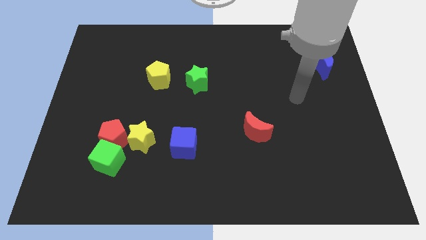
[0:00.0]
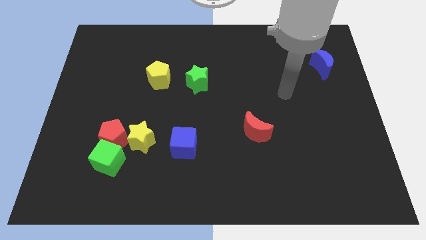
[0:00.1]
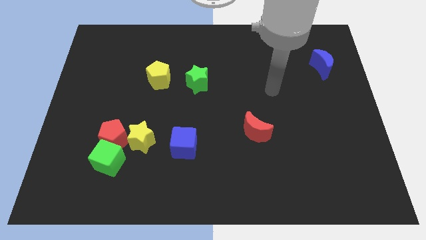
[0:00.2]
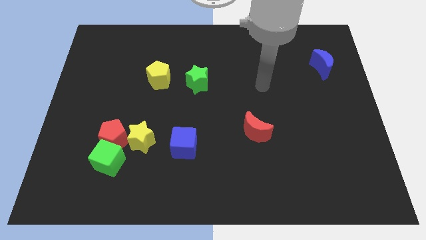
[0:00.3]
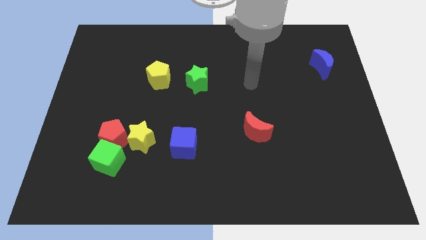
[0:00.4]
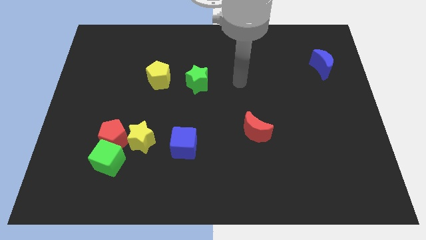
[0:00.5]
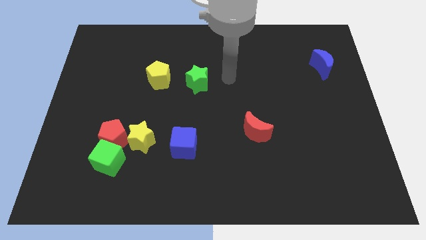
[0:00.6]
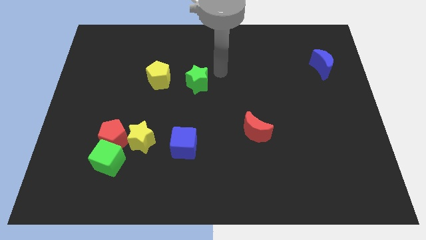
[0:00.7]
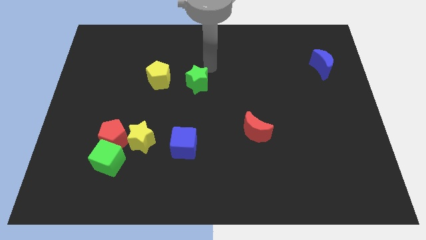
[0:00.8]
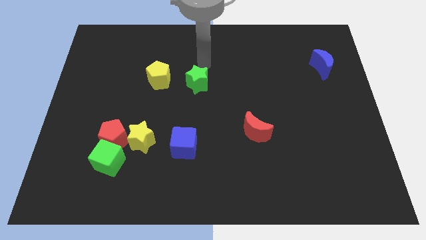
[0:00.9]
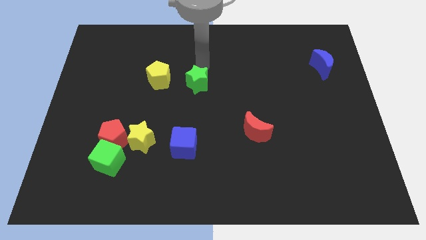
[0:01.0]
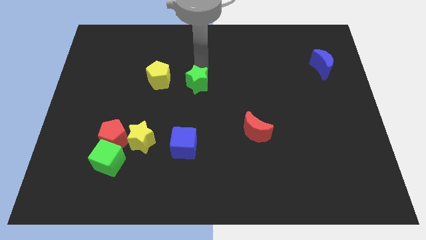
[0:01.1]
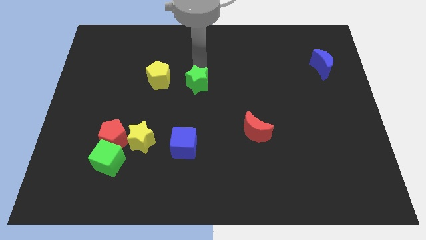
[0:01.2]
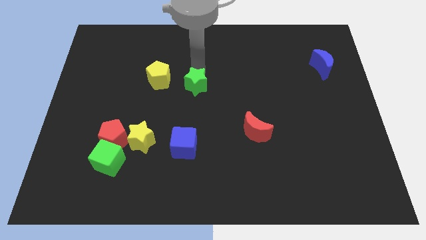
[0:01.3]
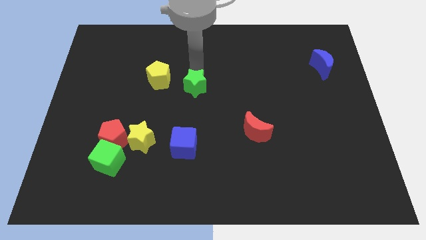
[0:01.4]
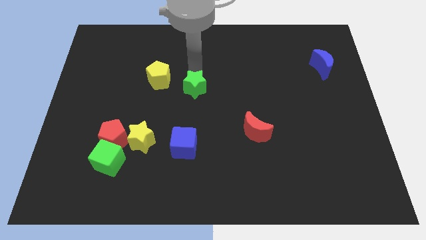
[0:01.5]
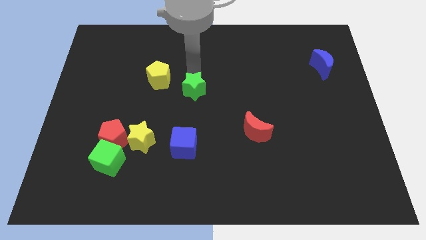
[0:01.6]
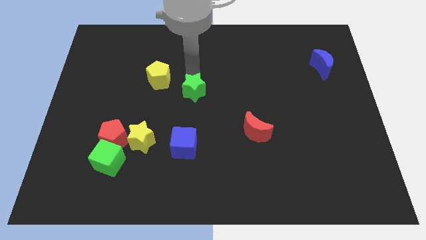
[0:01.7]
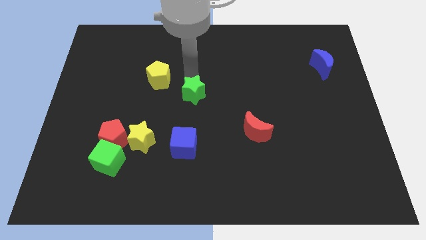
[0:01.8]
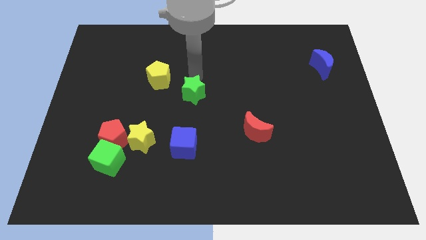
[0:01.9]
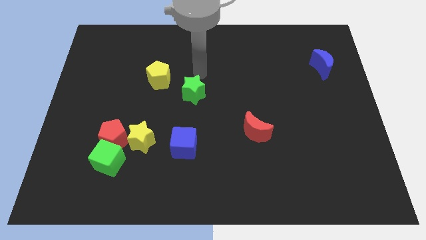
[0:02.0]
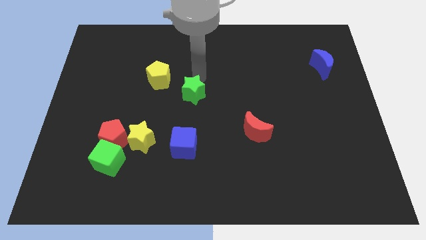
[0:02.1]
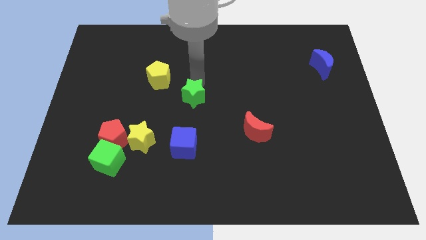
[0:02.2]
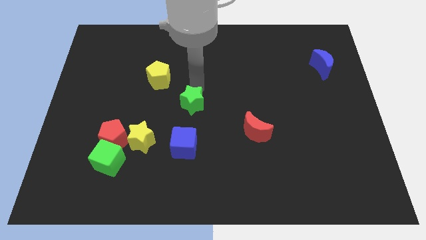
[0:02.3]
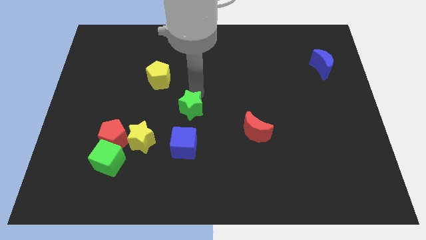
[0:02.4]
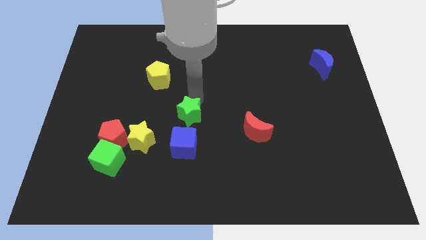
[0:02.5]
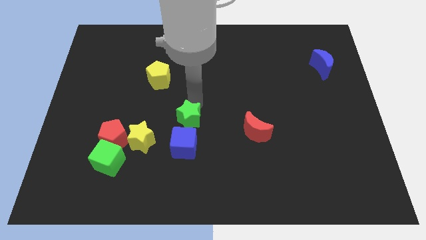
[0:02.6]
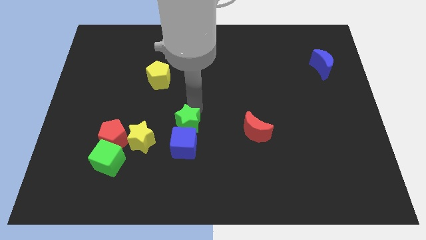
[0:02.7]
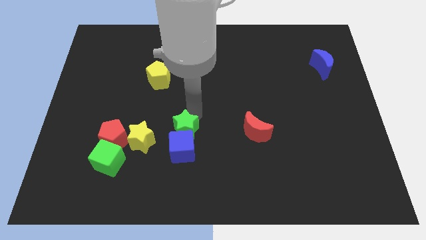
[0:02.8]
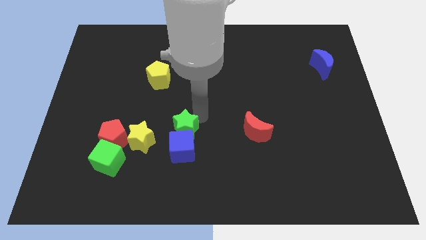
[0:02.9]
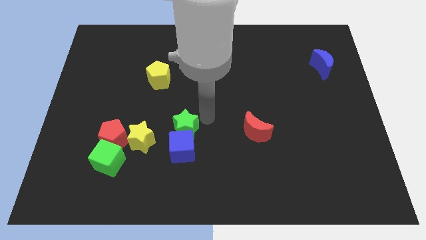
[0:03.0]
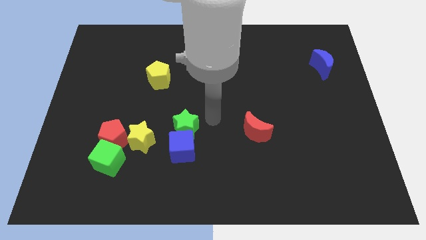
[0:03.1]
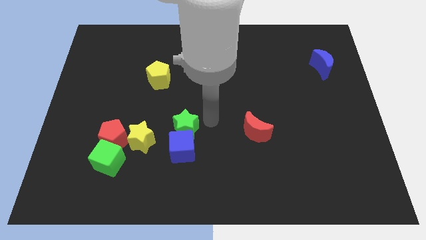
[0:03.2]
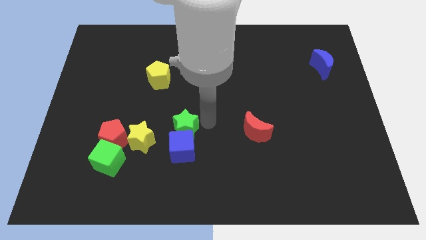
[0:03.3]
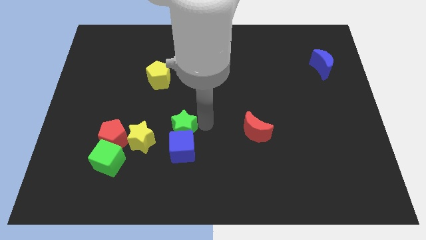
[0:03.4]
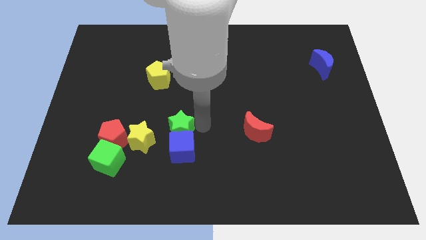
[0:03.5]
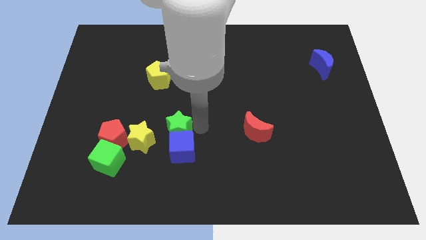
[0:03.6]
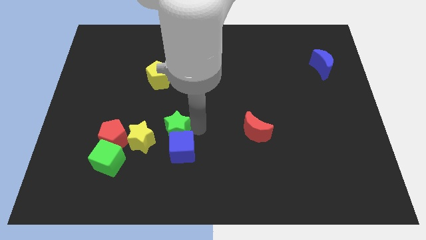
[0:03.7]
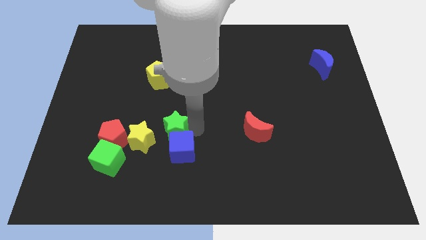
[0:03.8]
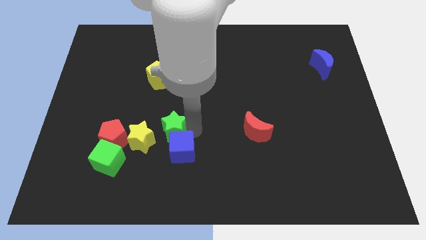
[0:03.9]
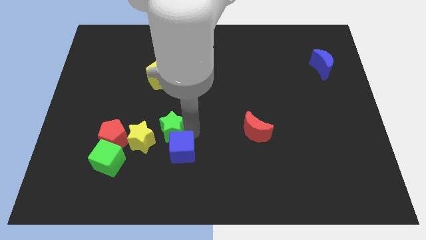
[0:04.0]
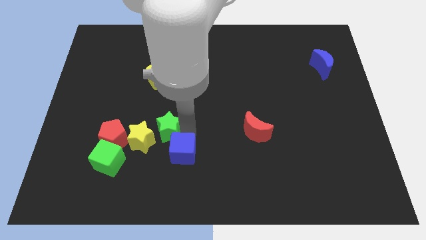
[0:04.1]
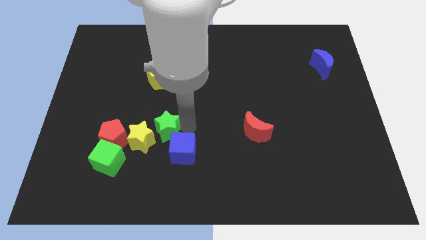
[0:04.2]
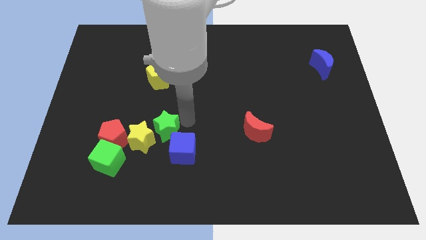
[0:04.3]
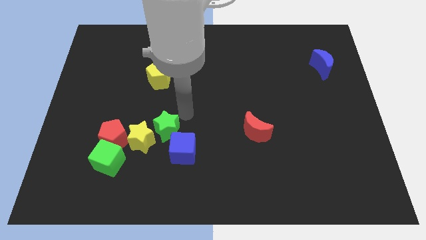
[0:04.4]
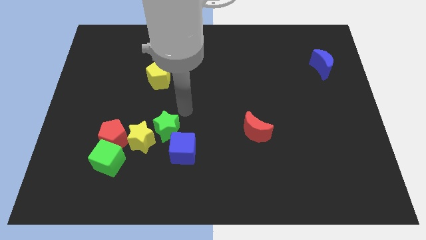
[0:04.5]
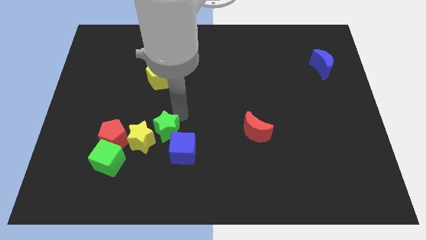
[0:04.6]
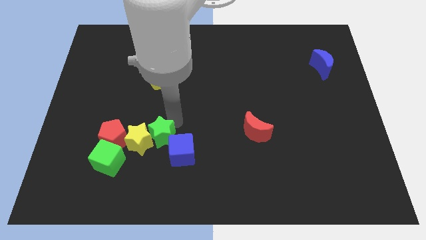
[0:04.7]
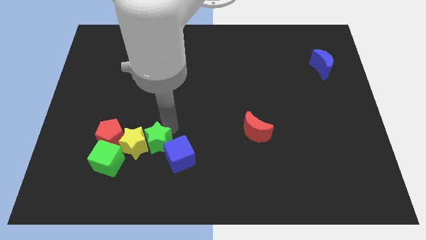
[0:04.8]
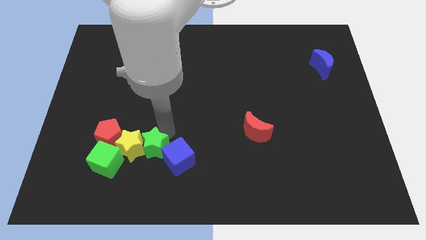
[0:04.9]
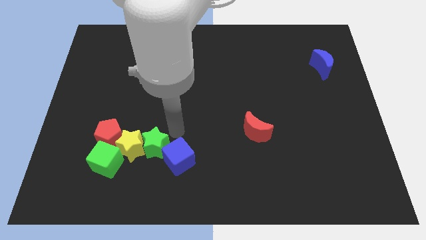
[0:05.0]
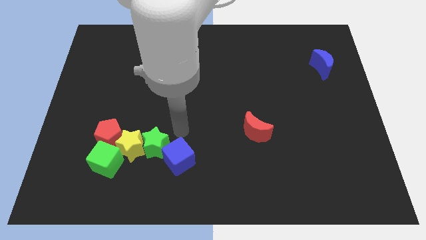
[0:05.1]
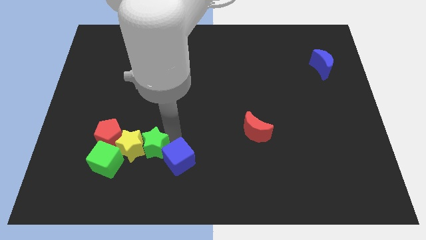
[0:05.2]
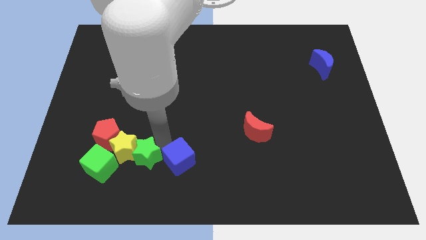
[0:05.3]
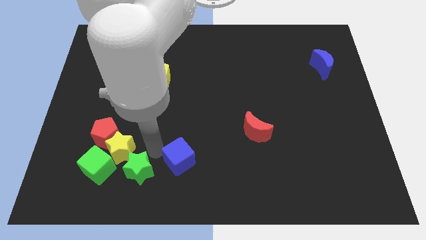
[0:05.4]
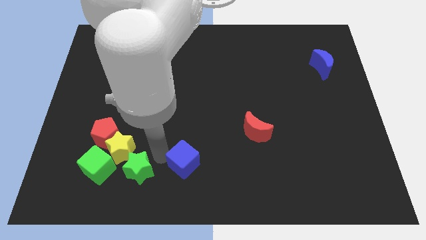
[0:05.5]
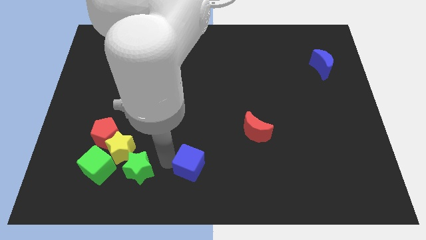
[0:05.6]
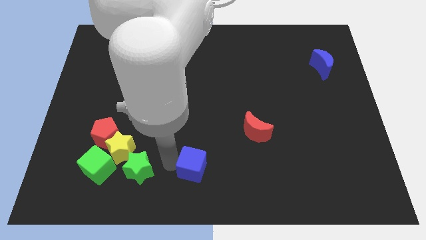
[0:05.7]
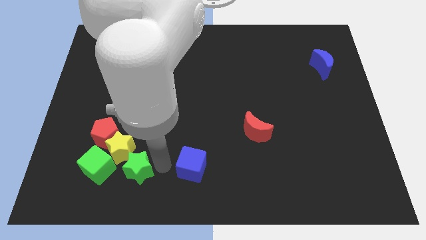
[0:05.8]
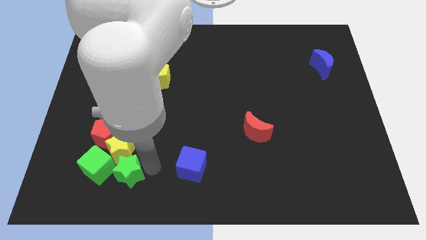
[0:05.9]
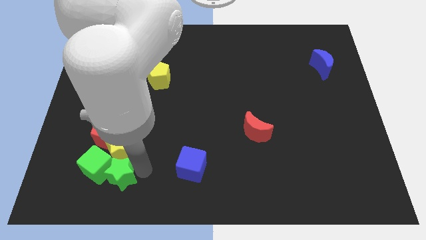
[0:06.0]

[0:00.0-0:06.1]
slide the green star to the bottom of the red pentagon

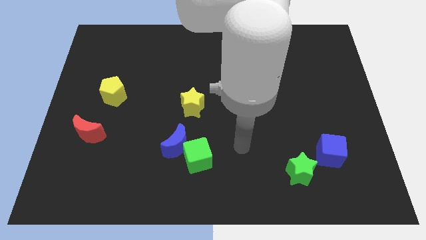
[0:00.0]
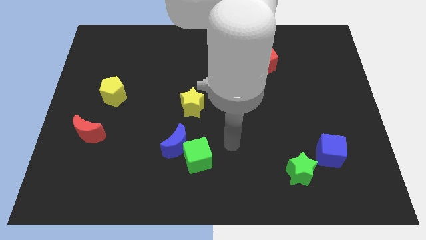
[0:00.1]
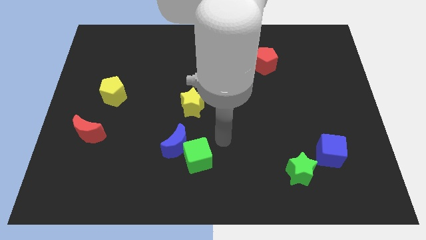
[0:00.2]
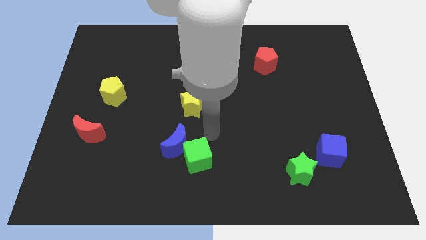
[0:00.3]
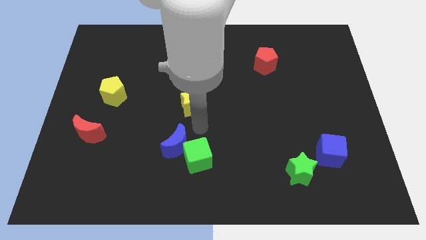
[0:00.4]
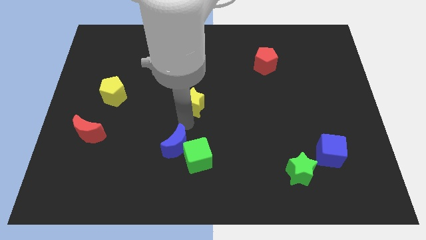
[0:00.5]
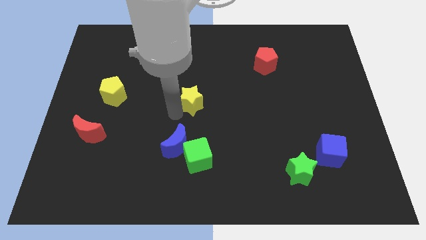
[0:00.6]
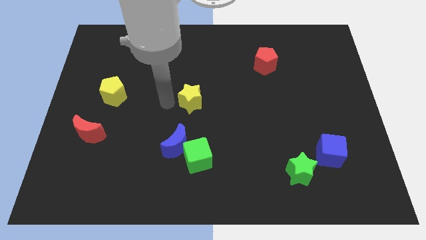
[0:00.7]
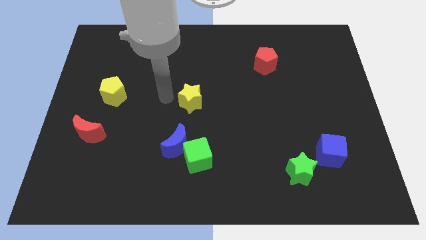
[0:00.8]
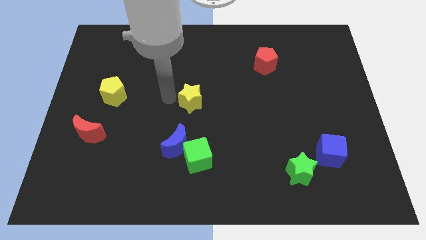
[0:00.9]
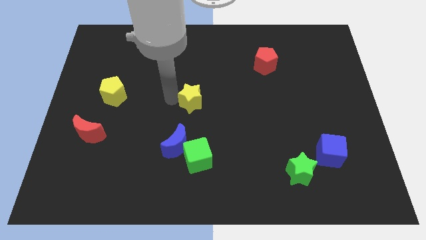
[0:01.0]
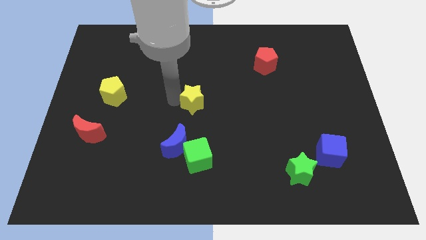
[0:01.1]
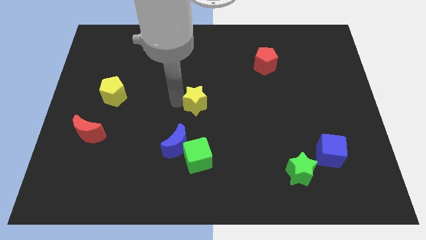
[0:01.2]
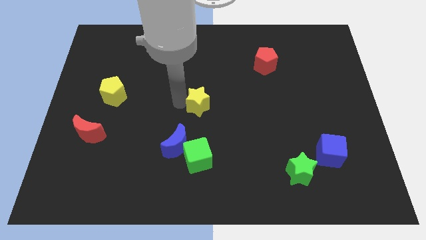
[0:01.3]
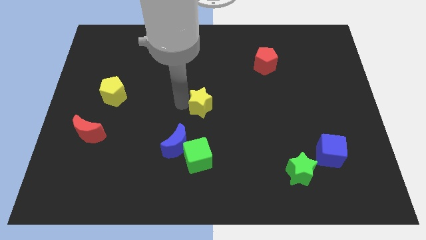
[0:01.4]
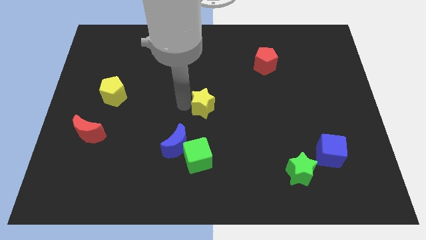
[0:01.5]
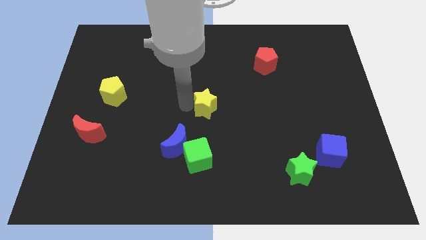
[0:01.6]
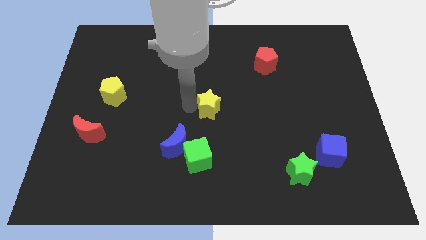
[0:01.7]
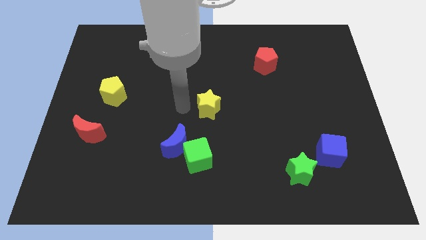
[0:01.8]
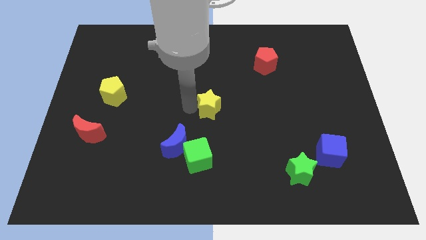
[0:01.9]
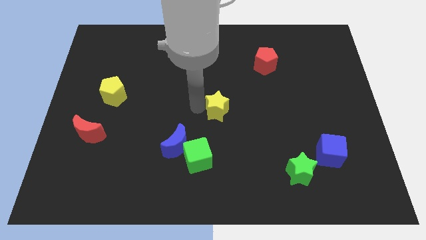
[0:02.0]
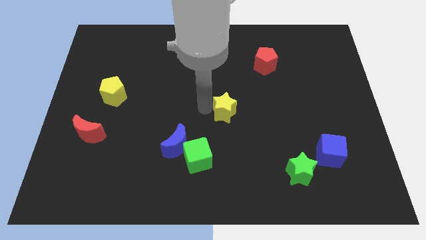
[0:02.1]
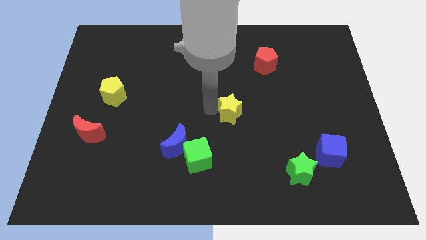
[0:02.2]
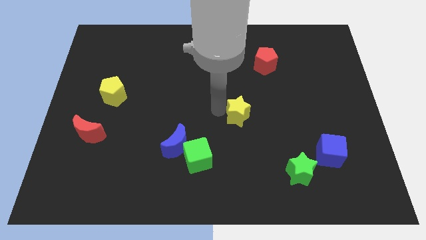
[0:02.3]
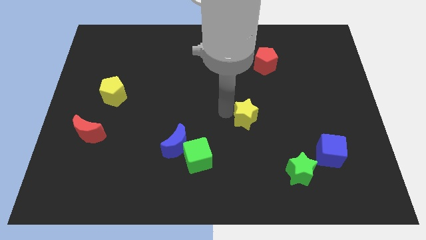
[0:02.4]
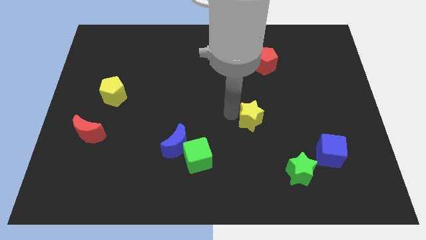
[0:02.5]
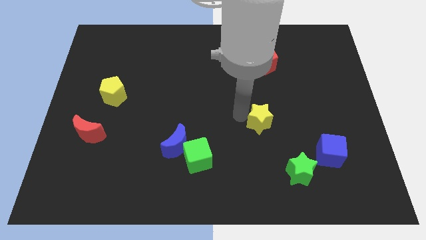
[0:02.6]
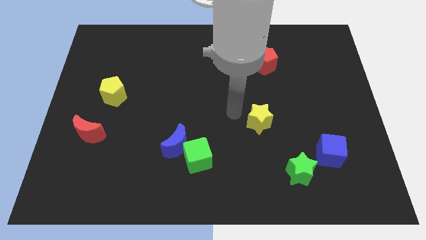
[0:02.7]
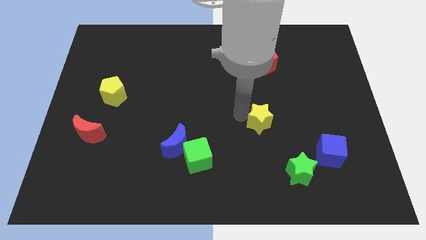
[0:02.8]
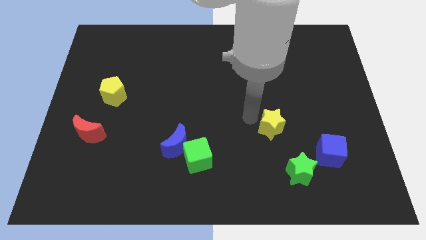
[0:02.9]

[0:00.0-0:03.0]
put the yellow star to the top side of the green star
